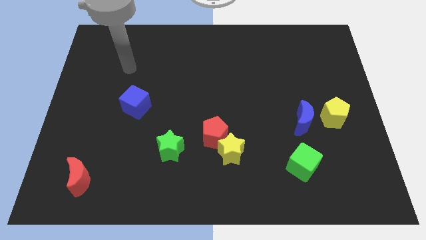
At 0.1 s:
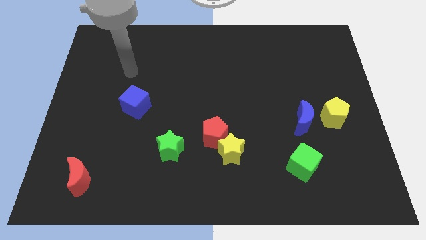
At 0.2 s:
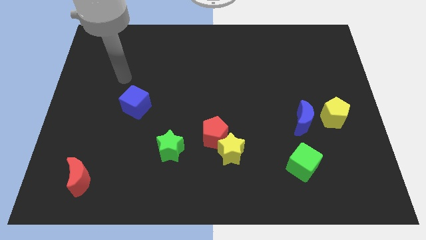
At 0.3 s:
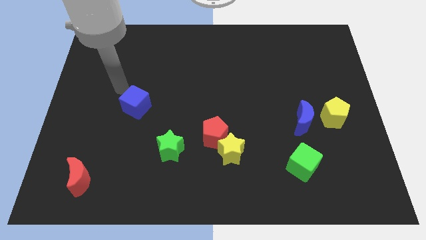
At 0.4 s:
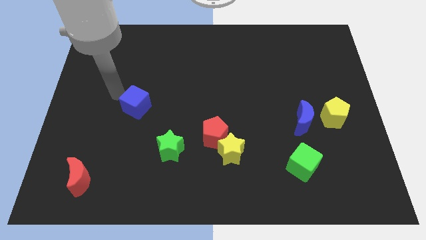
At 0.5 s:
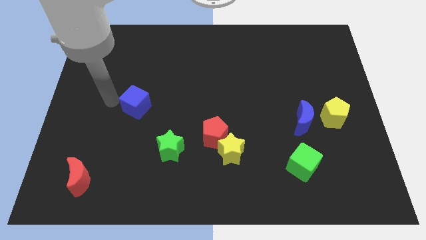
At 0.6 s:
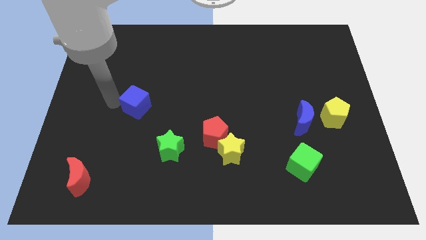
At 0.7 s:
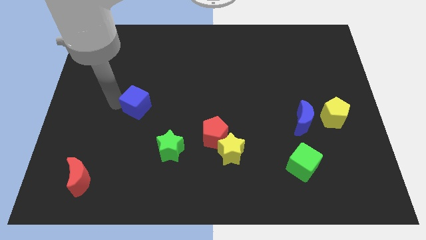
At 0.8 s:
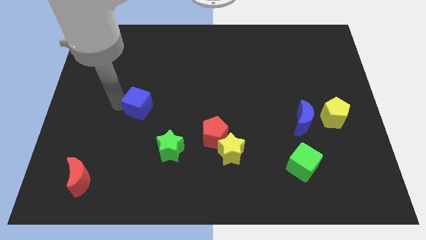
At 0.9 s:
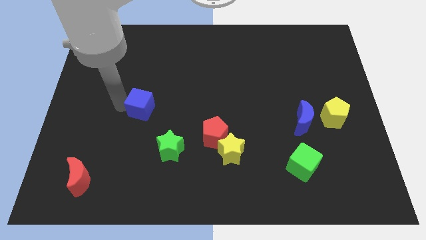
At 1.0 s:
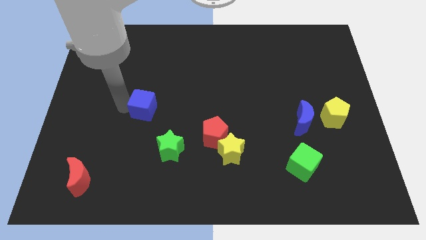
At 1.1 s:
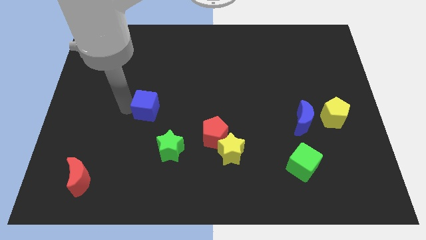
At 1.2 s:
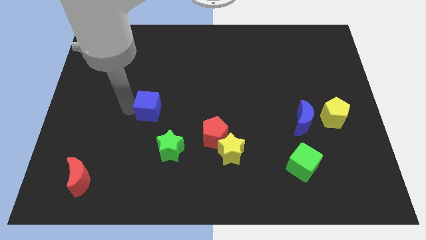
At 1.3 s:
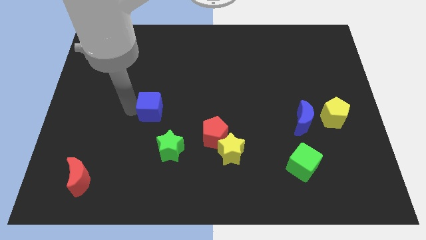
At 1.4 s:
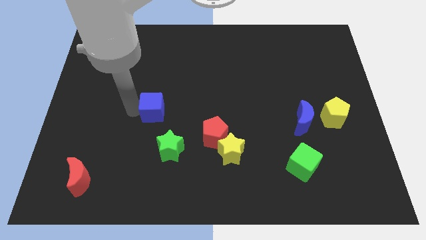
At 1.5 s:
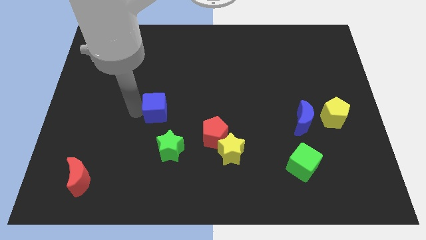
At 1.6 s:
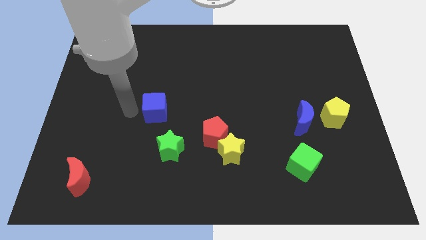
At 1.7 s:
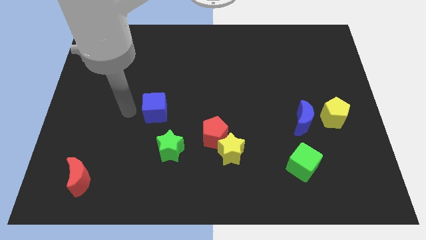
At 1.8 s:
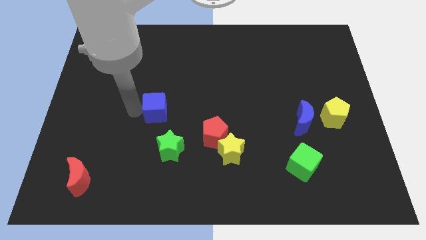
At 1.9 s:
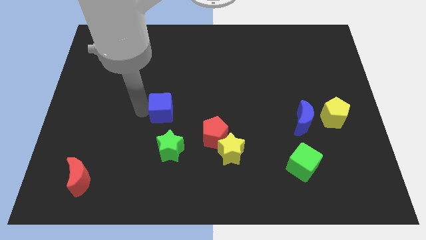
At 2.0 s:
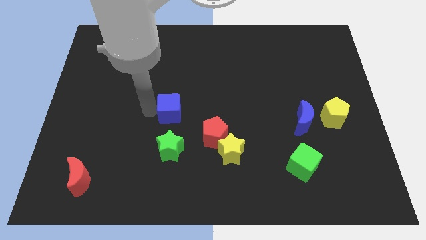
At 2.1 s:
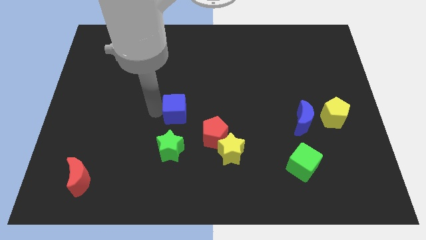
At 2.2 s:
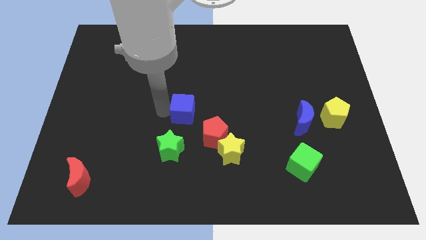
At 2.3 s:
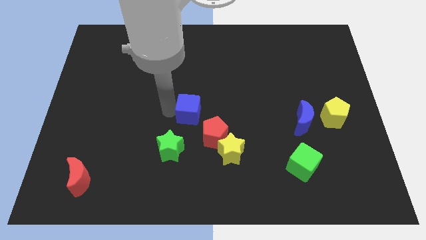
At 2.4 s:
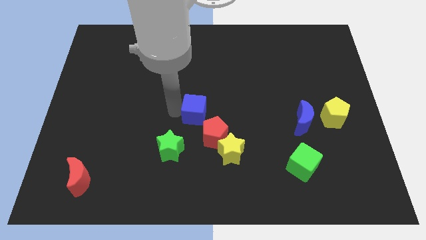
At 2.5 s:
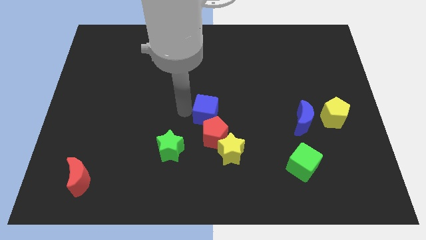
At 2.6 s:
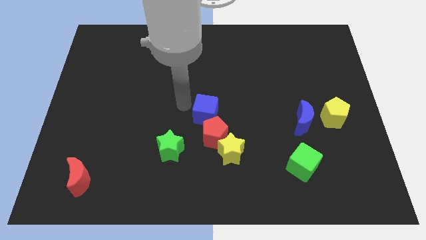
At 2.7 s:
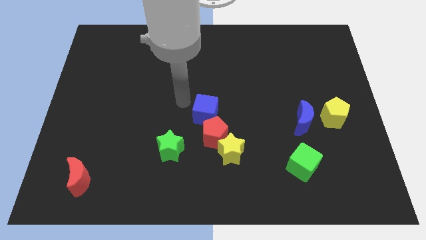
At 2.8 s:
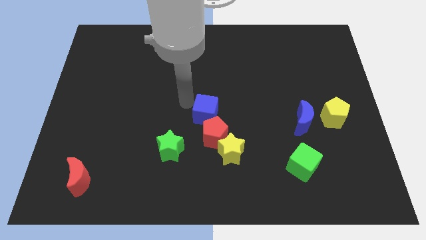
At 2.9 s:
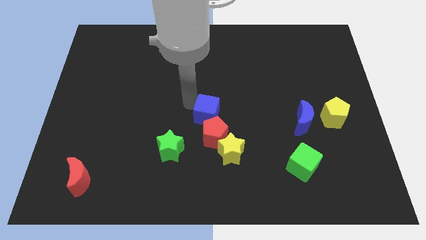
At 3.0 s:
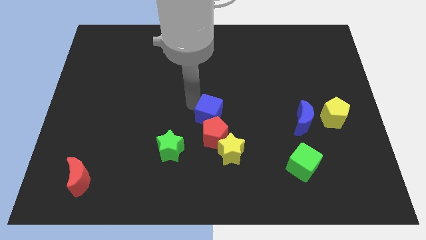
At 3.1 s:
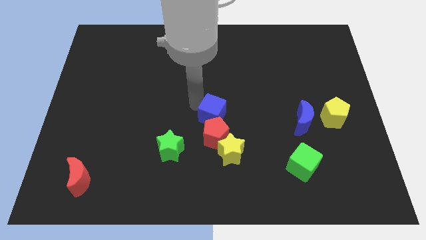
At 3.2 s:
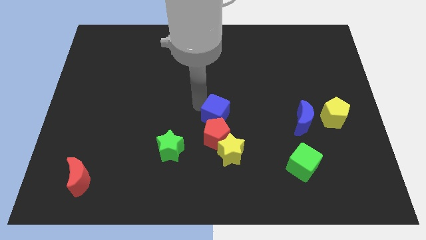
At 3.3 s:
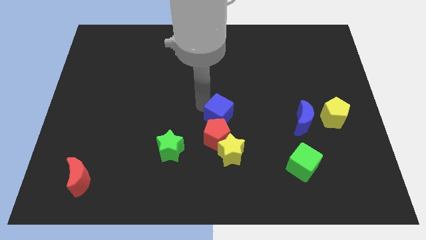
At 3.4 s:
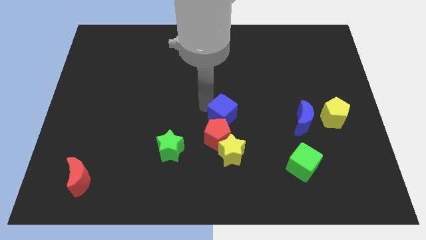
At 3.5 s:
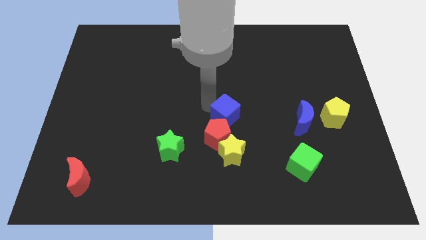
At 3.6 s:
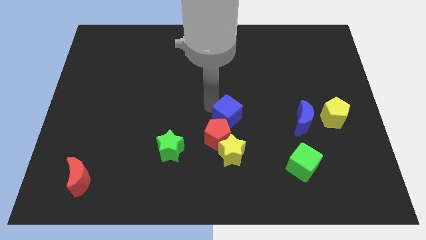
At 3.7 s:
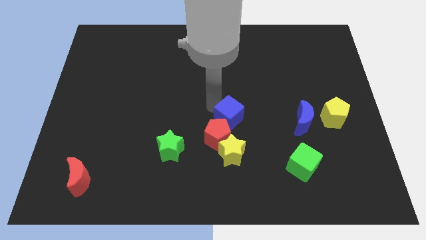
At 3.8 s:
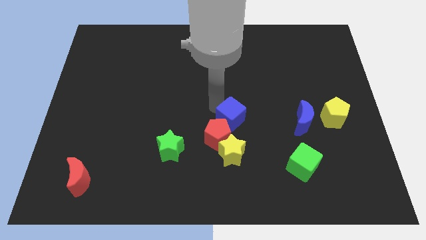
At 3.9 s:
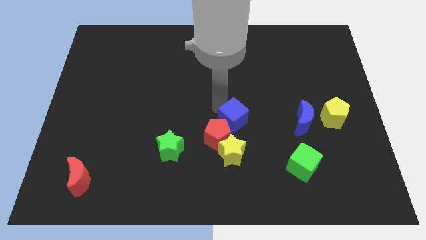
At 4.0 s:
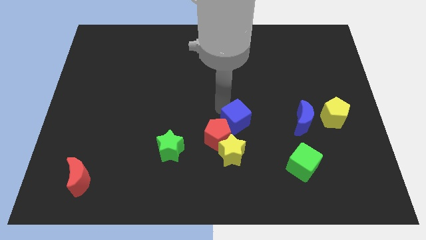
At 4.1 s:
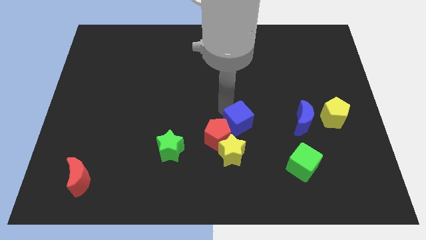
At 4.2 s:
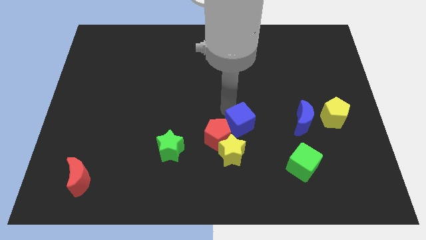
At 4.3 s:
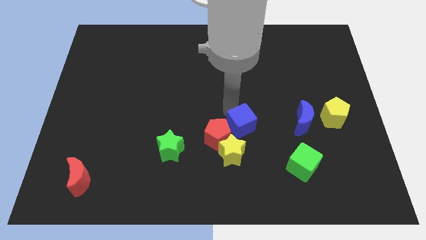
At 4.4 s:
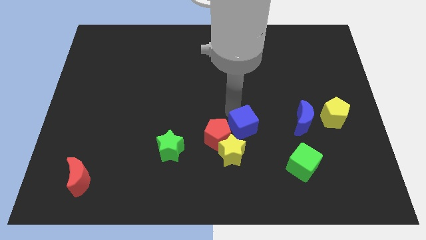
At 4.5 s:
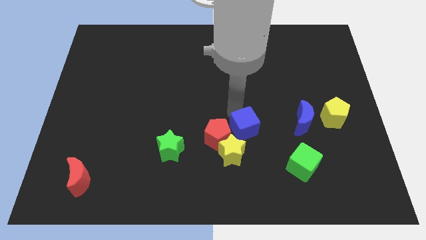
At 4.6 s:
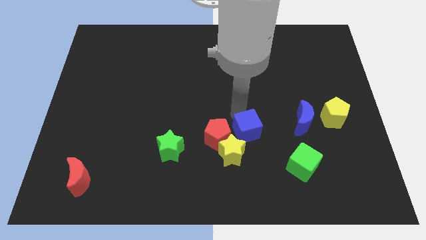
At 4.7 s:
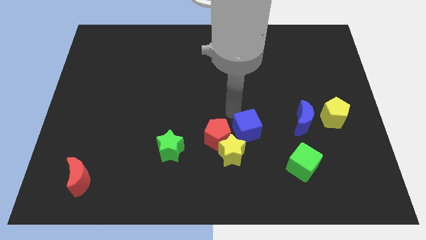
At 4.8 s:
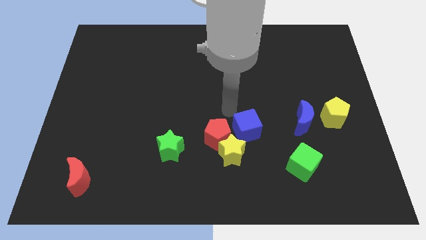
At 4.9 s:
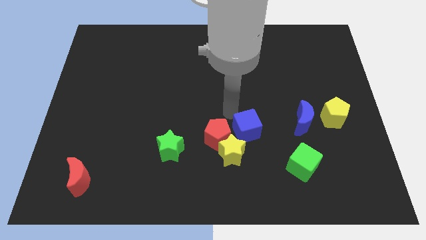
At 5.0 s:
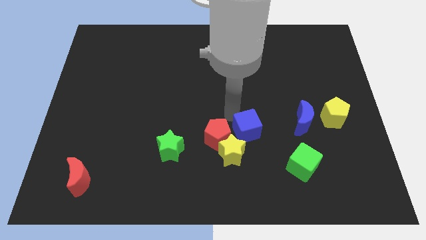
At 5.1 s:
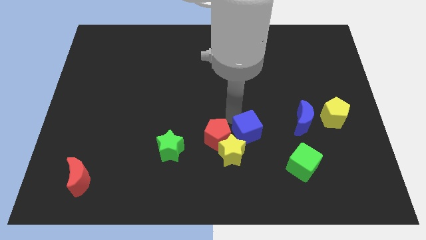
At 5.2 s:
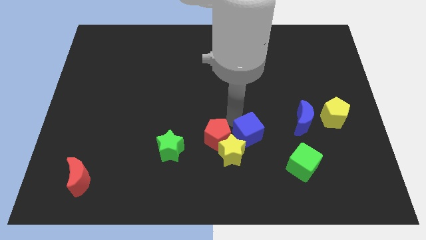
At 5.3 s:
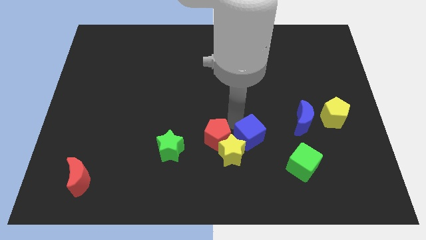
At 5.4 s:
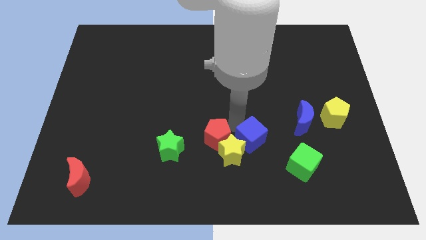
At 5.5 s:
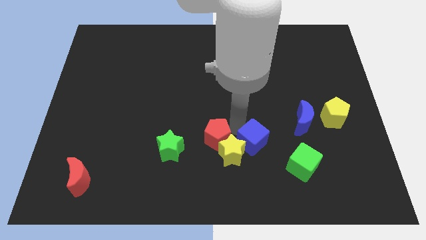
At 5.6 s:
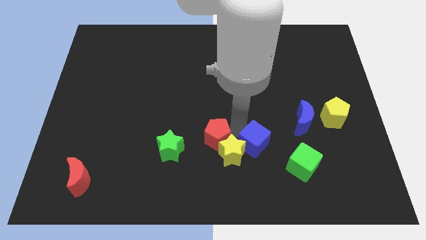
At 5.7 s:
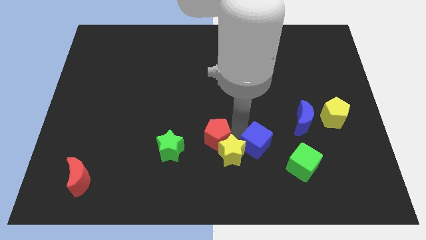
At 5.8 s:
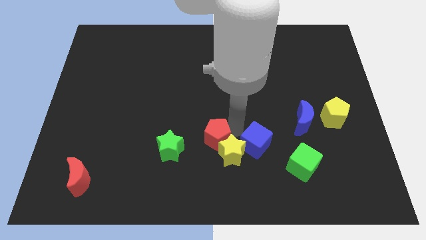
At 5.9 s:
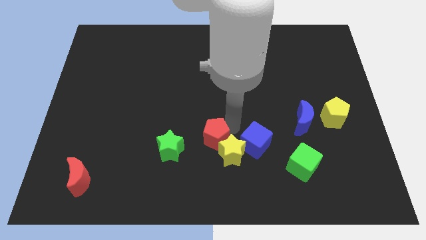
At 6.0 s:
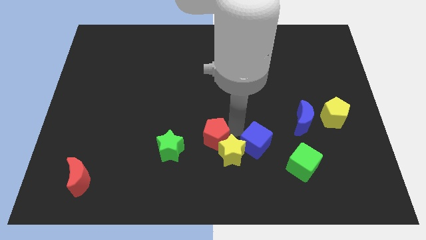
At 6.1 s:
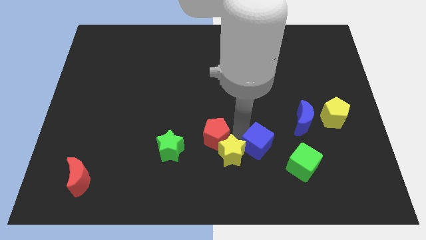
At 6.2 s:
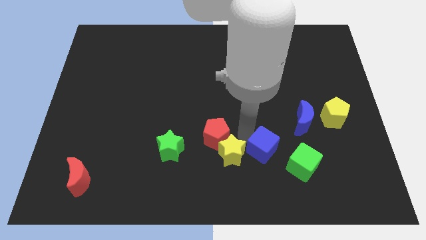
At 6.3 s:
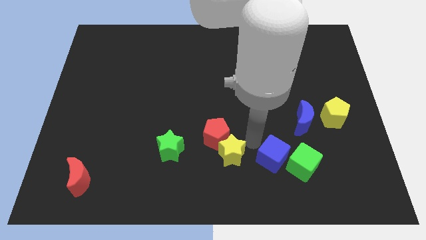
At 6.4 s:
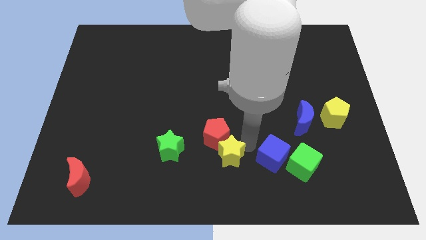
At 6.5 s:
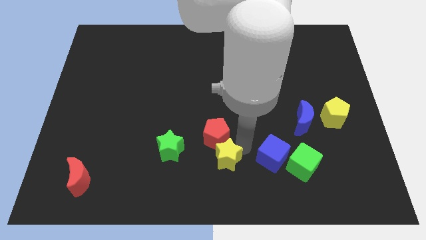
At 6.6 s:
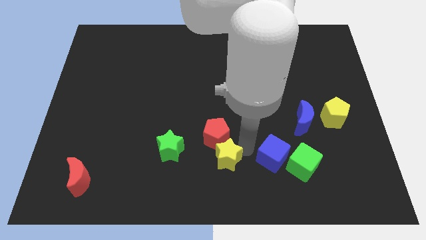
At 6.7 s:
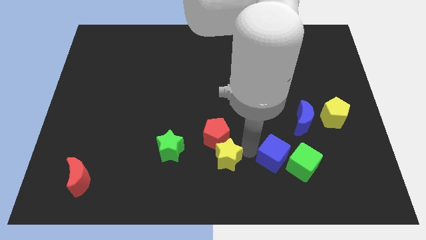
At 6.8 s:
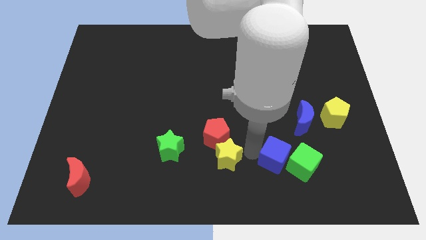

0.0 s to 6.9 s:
move the blue cube towards the green cube
